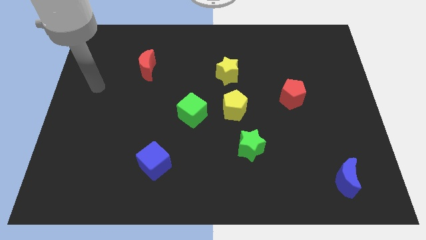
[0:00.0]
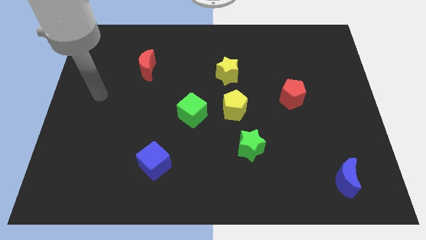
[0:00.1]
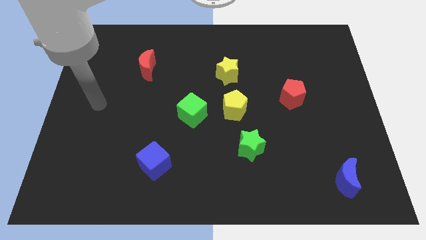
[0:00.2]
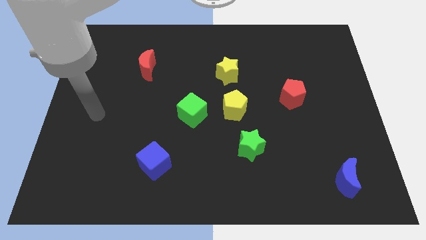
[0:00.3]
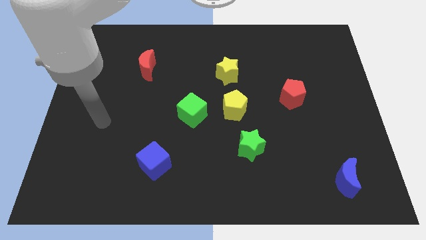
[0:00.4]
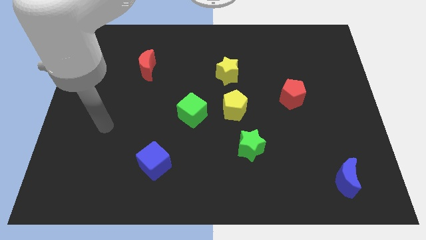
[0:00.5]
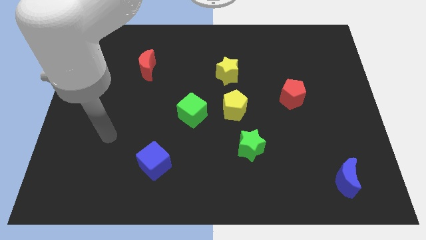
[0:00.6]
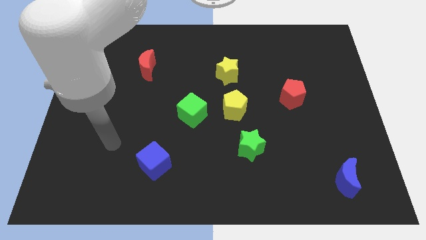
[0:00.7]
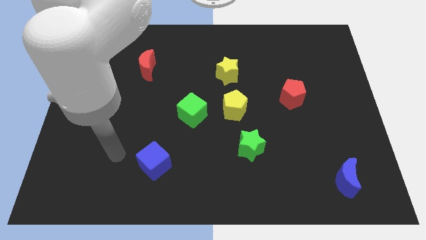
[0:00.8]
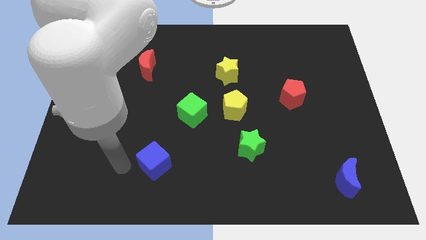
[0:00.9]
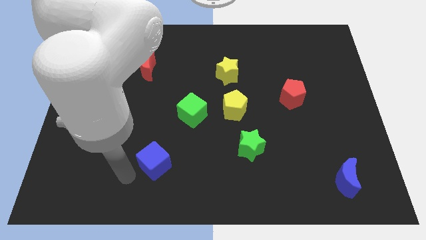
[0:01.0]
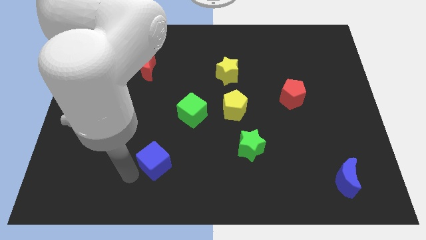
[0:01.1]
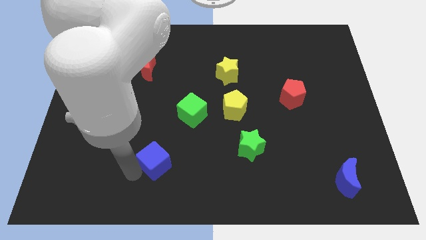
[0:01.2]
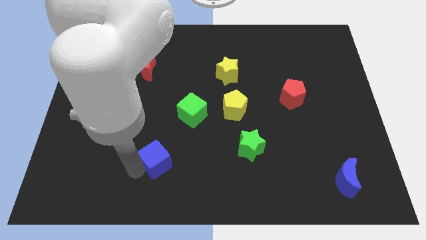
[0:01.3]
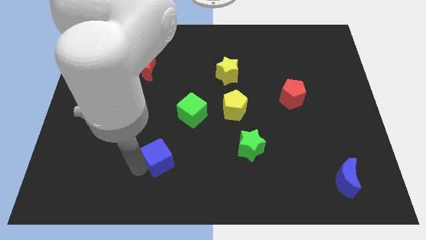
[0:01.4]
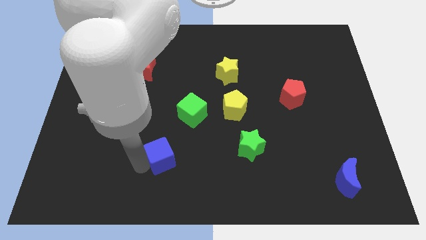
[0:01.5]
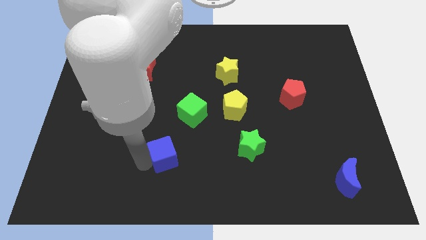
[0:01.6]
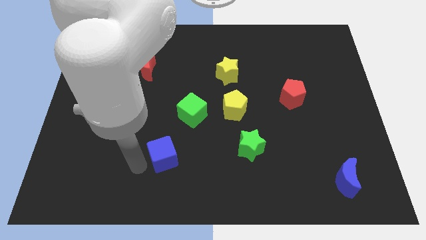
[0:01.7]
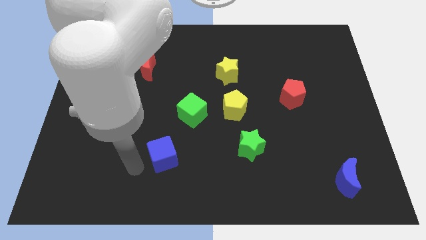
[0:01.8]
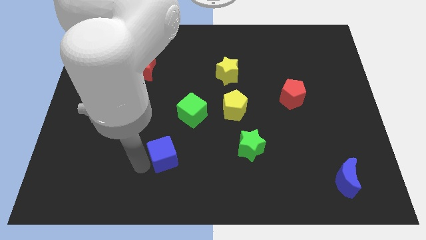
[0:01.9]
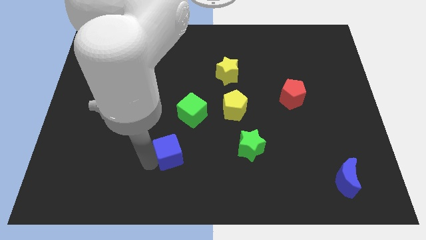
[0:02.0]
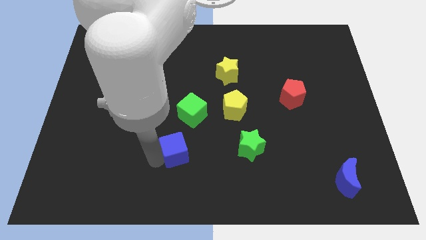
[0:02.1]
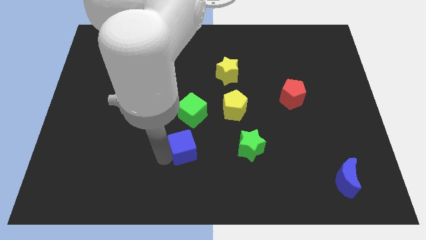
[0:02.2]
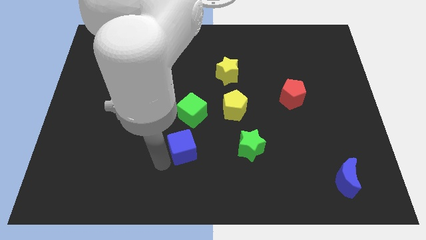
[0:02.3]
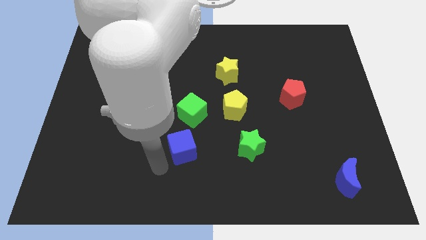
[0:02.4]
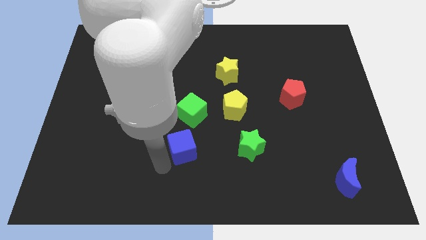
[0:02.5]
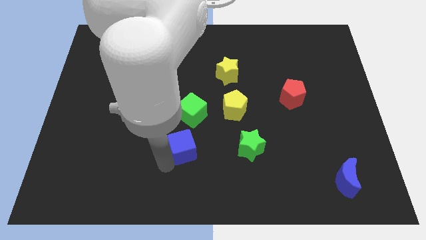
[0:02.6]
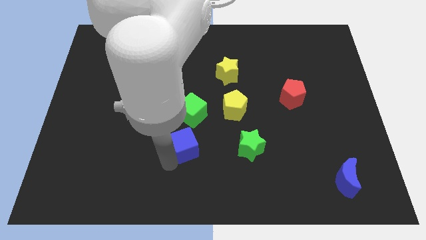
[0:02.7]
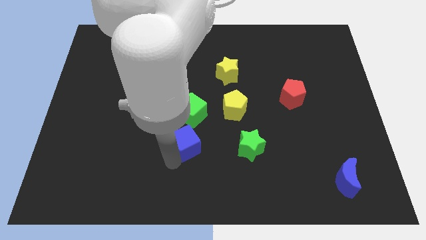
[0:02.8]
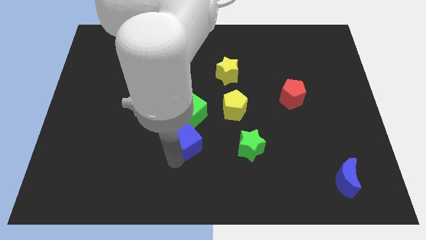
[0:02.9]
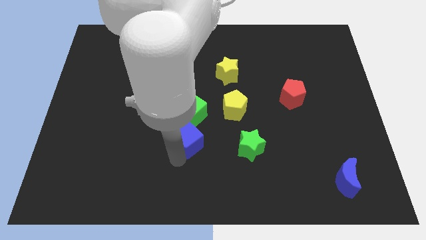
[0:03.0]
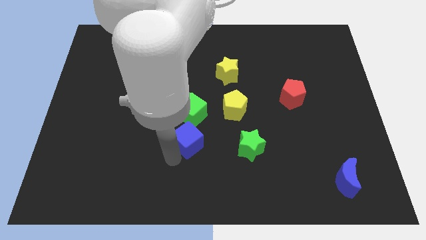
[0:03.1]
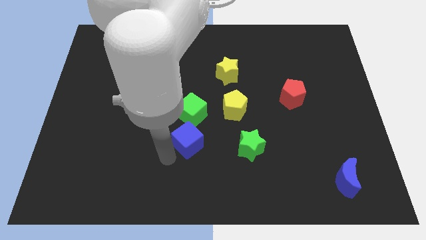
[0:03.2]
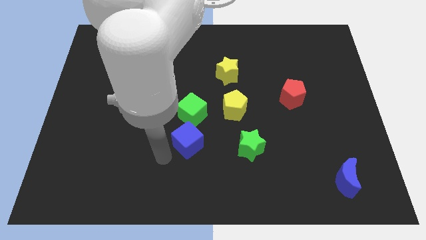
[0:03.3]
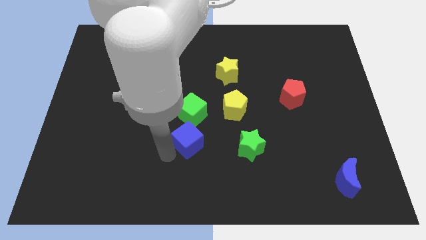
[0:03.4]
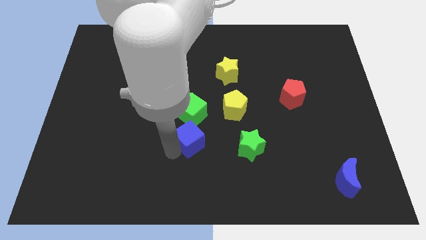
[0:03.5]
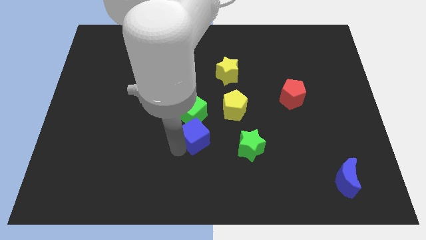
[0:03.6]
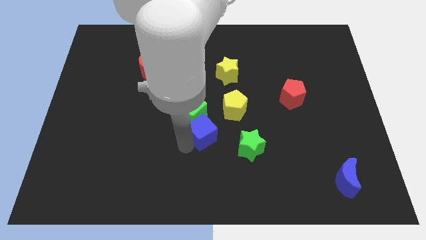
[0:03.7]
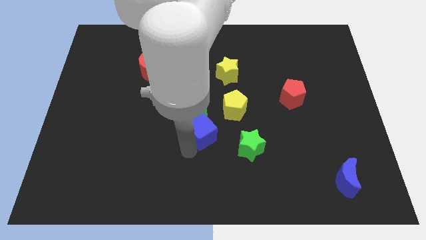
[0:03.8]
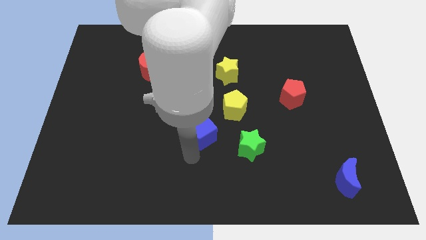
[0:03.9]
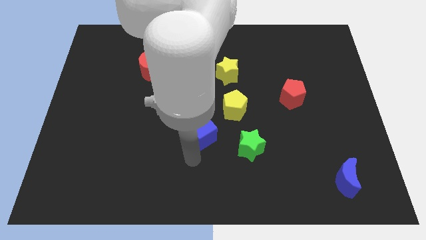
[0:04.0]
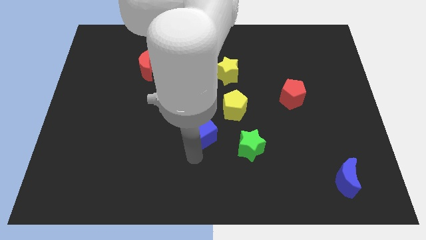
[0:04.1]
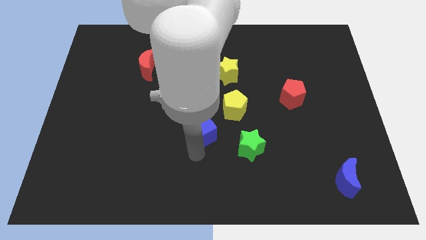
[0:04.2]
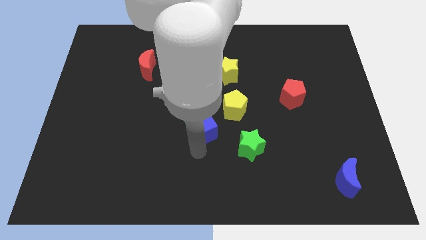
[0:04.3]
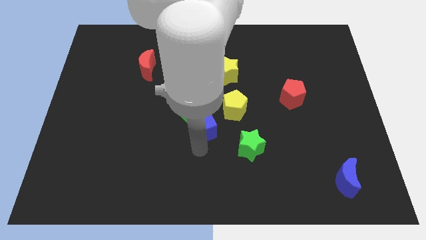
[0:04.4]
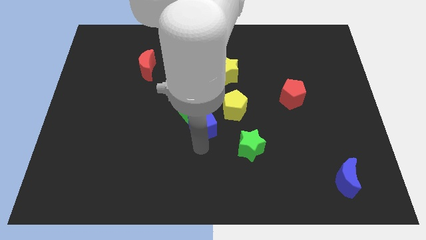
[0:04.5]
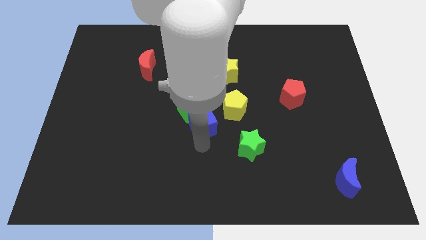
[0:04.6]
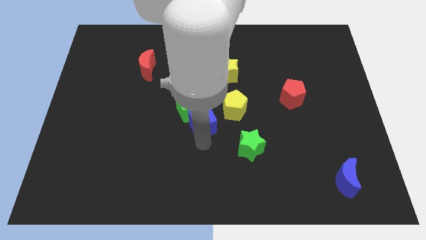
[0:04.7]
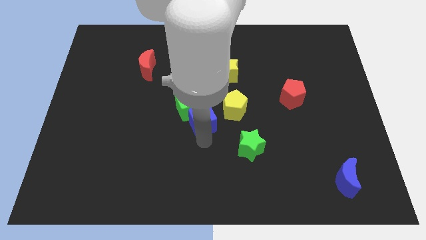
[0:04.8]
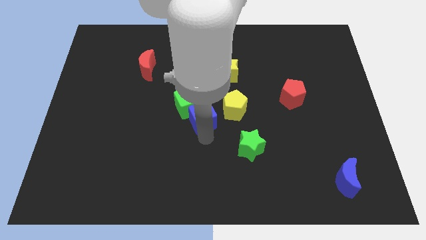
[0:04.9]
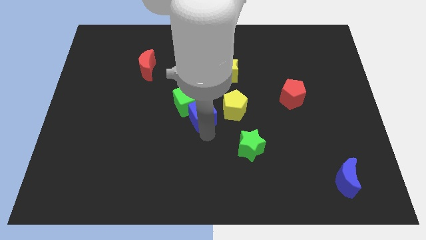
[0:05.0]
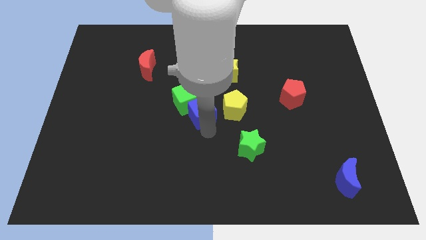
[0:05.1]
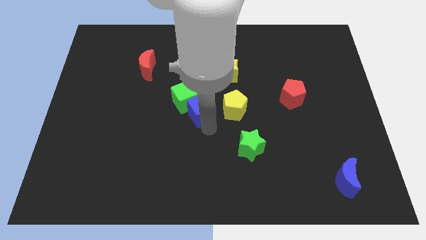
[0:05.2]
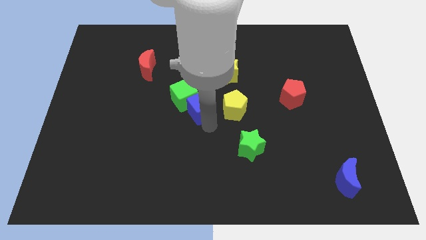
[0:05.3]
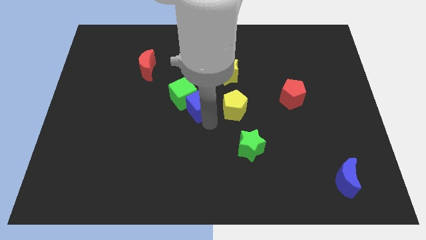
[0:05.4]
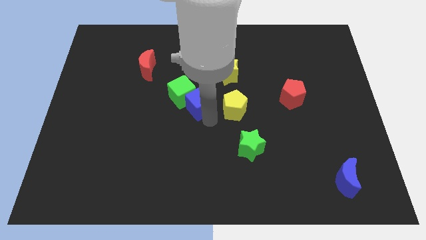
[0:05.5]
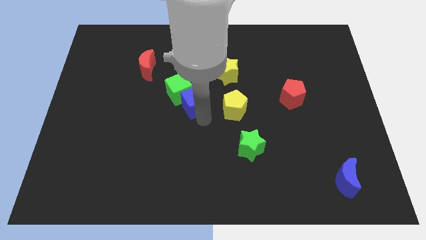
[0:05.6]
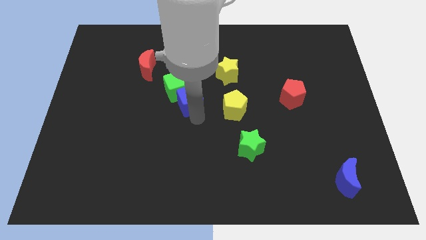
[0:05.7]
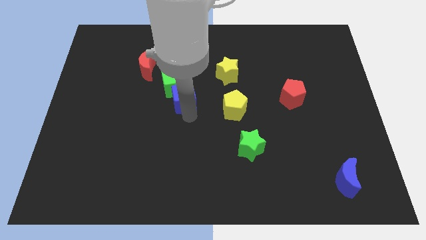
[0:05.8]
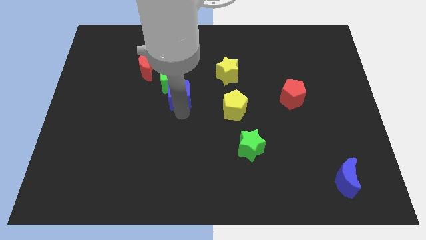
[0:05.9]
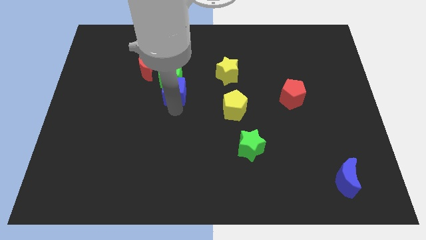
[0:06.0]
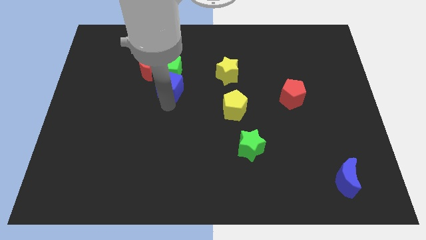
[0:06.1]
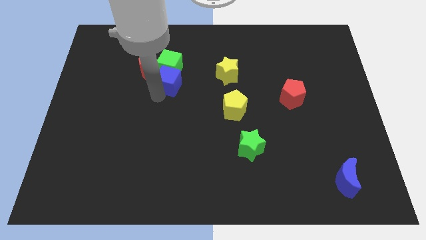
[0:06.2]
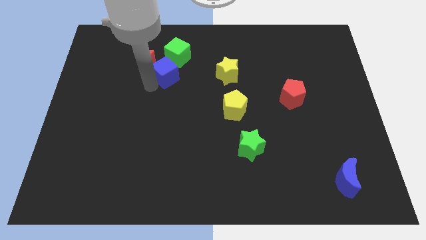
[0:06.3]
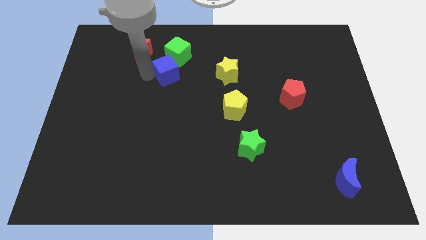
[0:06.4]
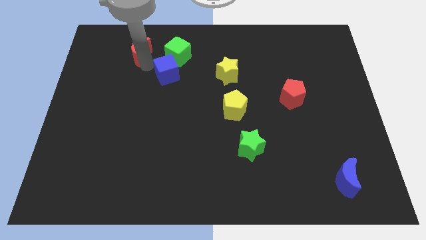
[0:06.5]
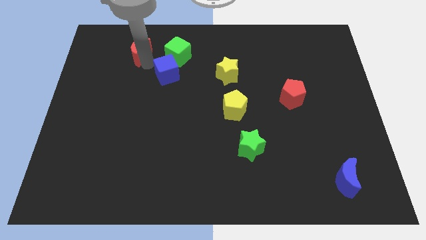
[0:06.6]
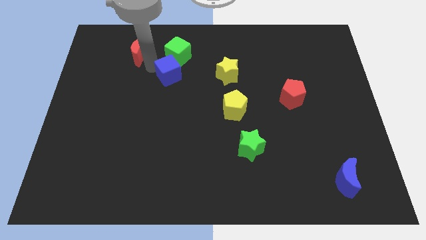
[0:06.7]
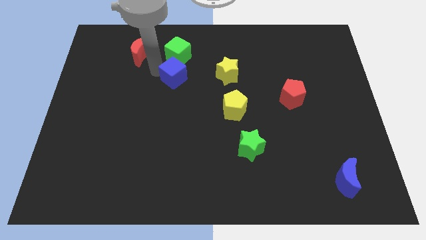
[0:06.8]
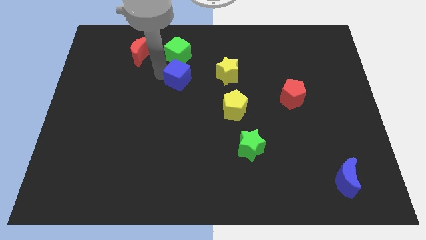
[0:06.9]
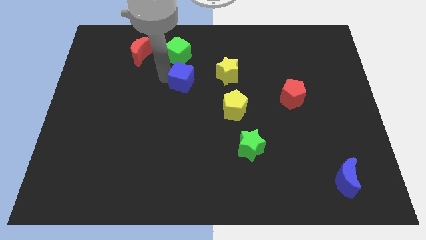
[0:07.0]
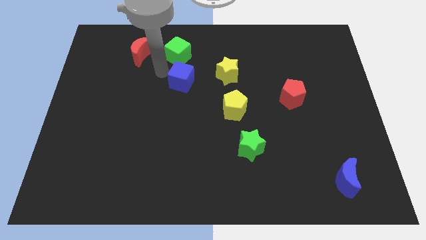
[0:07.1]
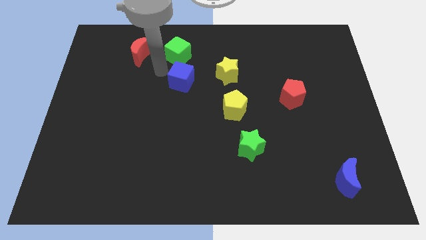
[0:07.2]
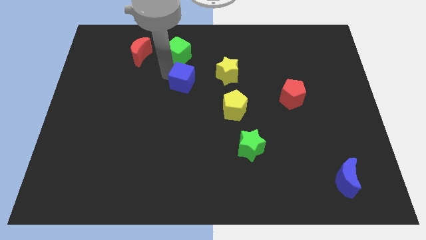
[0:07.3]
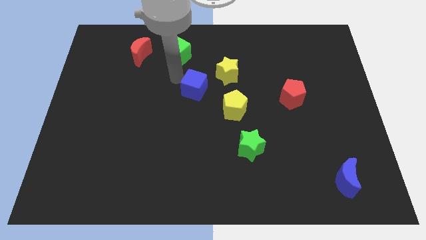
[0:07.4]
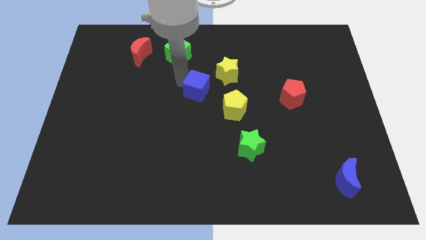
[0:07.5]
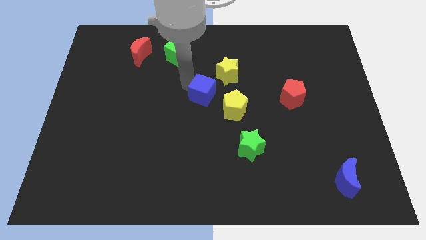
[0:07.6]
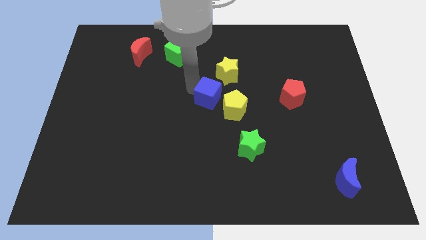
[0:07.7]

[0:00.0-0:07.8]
push the blue cube upwards and to the right diagonally
